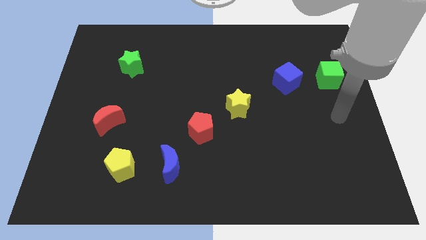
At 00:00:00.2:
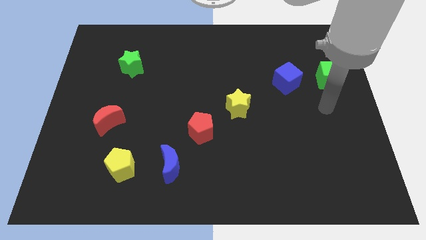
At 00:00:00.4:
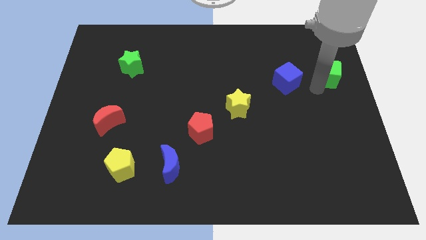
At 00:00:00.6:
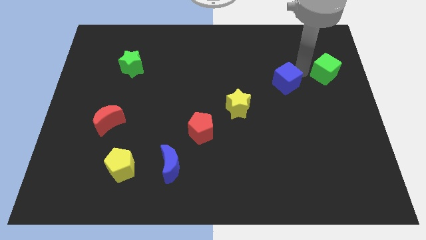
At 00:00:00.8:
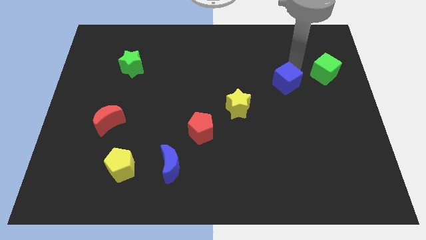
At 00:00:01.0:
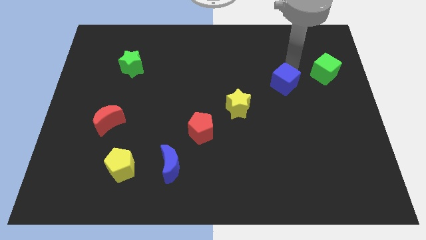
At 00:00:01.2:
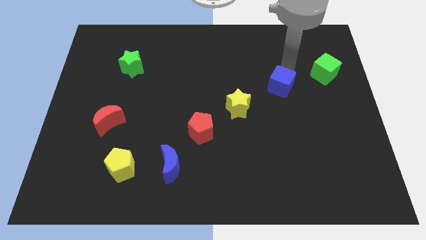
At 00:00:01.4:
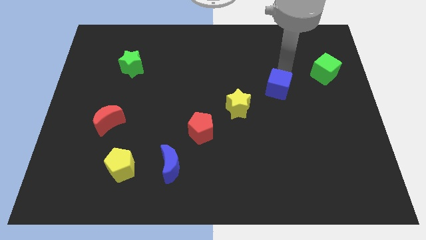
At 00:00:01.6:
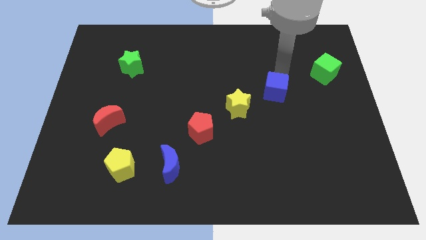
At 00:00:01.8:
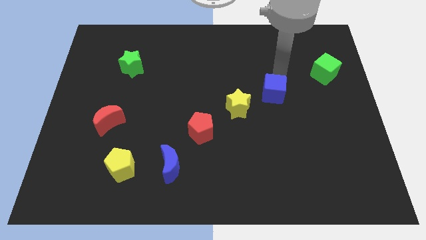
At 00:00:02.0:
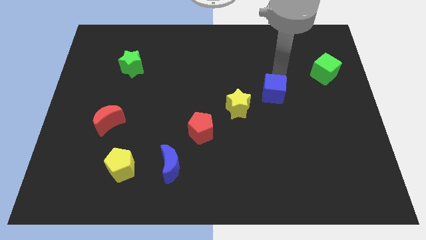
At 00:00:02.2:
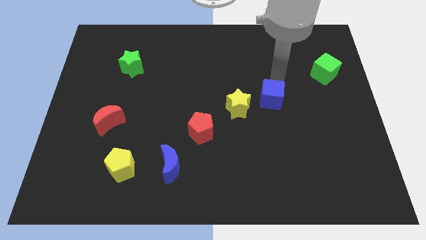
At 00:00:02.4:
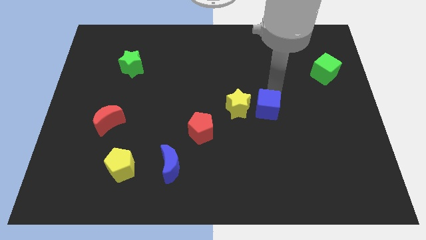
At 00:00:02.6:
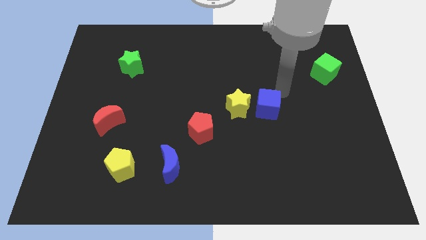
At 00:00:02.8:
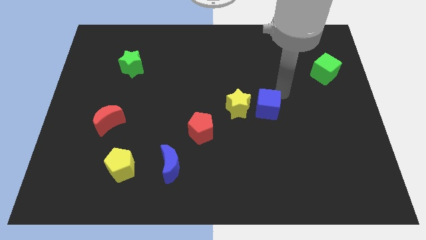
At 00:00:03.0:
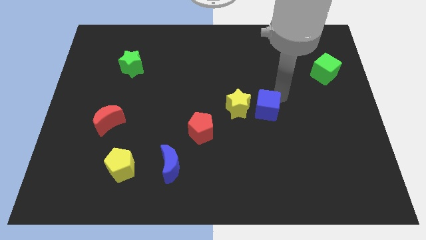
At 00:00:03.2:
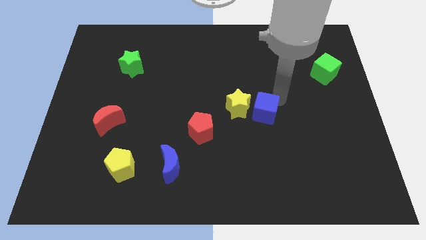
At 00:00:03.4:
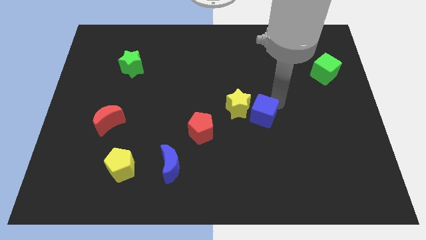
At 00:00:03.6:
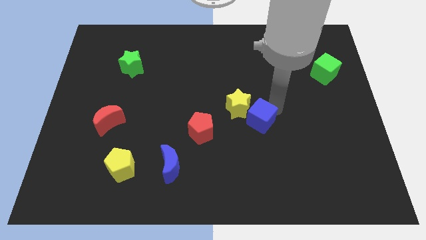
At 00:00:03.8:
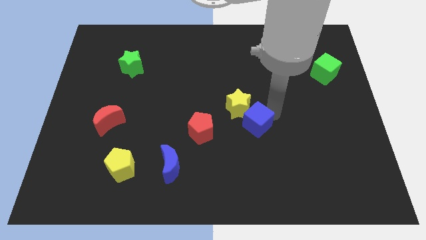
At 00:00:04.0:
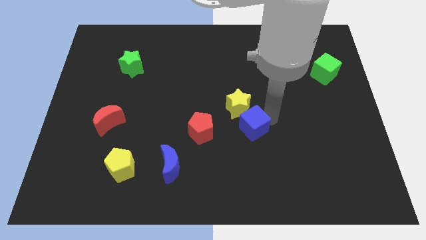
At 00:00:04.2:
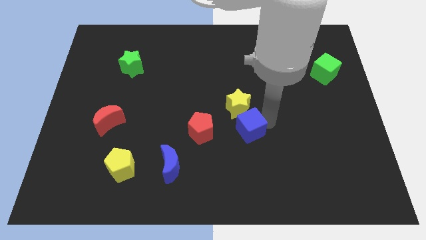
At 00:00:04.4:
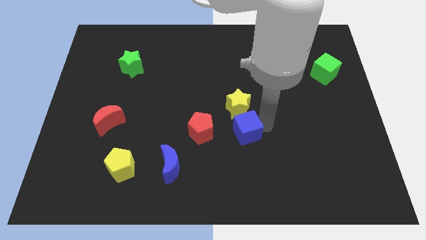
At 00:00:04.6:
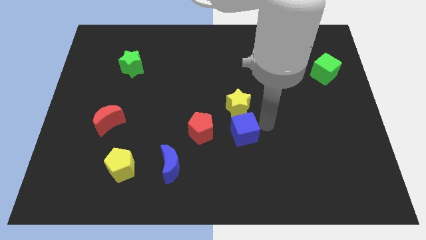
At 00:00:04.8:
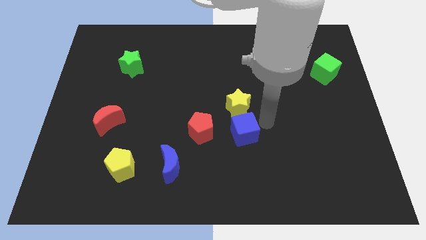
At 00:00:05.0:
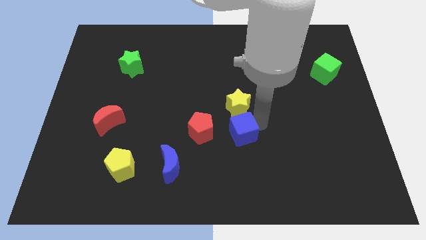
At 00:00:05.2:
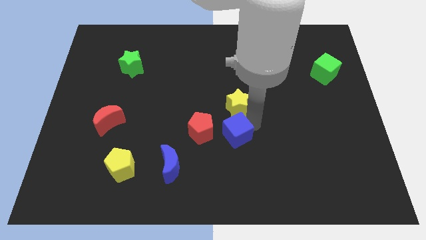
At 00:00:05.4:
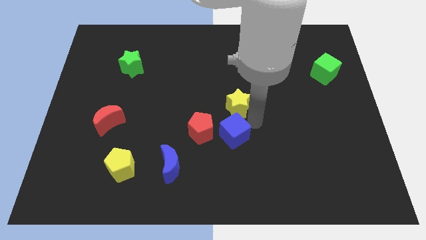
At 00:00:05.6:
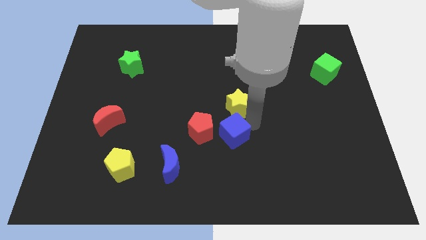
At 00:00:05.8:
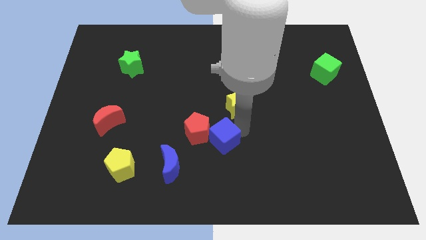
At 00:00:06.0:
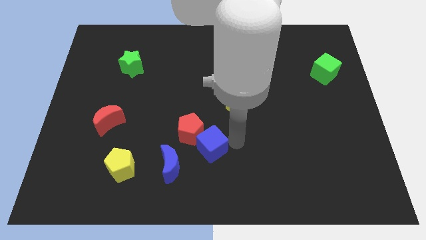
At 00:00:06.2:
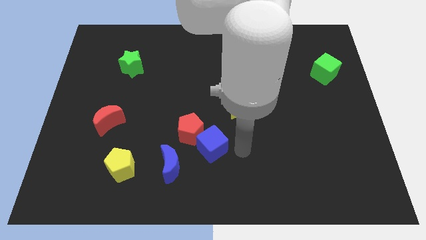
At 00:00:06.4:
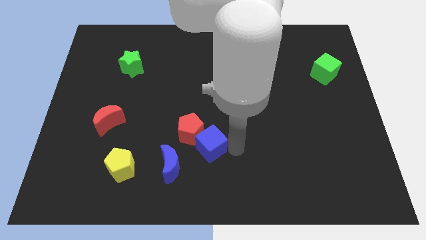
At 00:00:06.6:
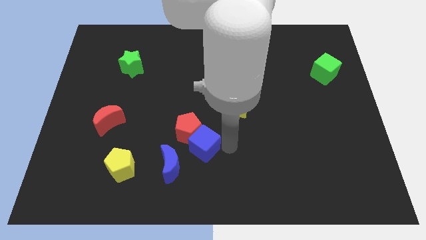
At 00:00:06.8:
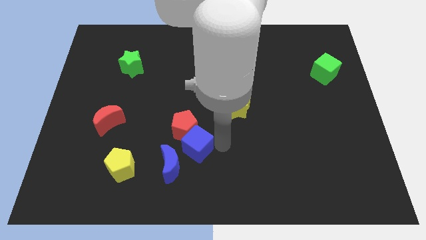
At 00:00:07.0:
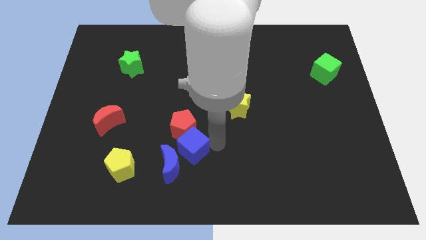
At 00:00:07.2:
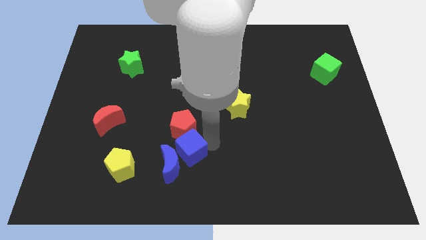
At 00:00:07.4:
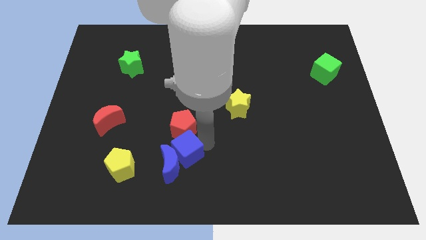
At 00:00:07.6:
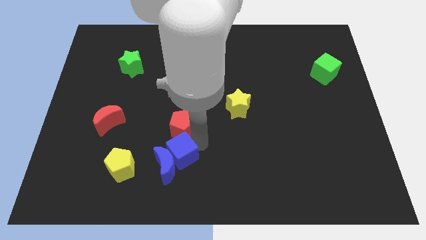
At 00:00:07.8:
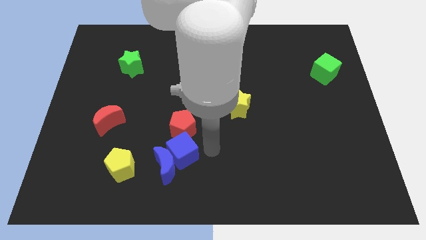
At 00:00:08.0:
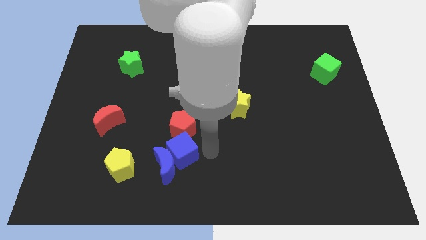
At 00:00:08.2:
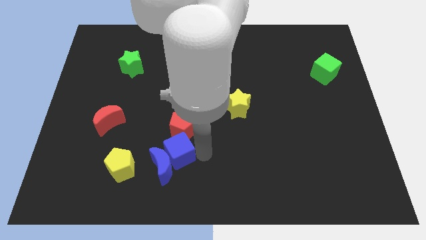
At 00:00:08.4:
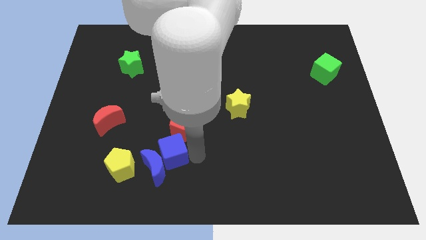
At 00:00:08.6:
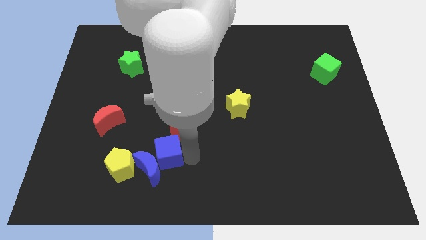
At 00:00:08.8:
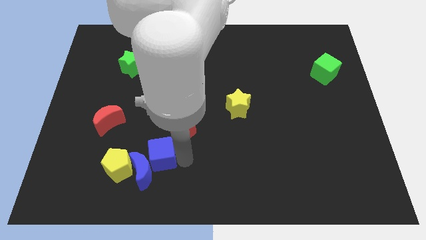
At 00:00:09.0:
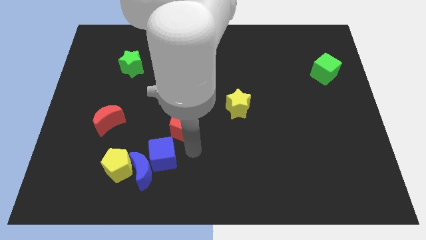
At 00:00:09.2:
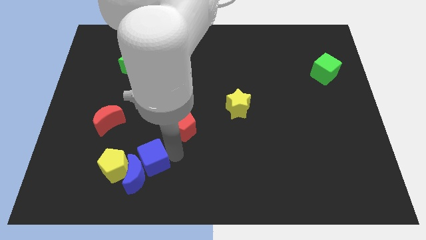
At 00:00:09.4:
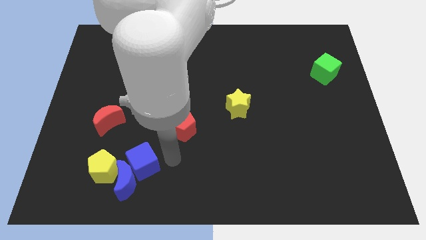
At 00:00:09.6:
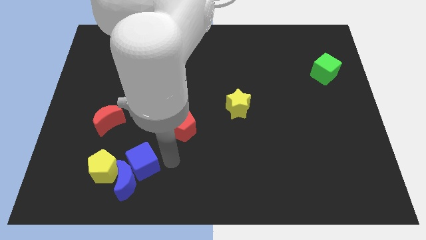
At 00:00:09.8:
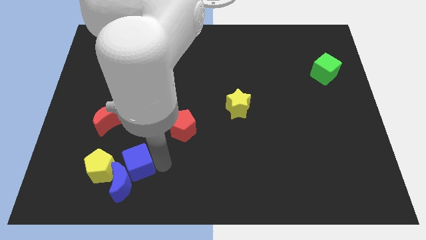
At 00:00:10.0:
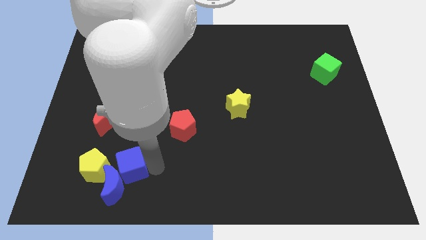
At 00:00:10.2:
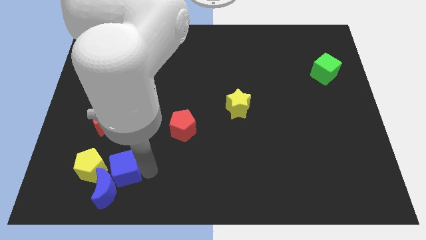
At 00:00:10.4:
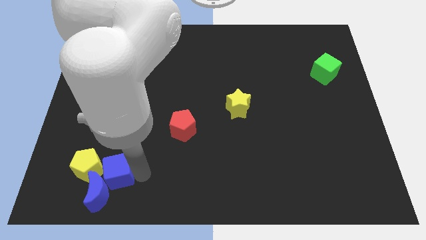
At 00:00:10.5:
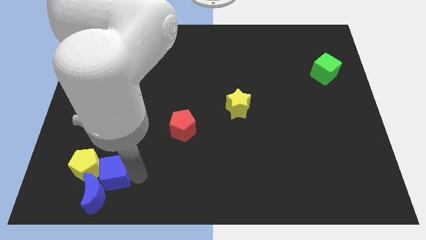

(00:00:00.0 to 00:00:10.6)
push the blue cube towards the yellow pentagon

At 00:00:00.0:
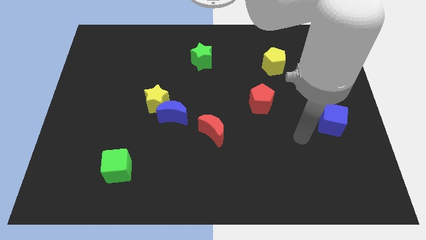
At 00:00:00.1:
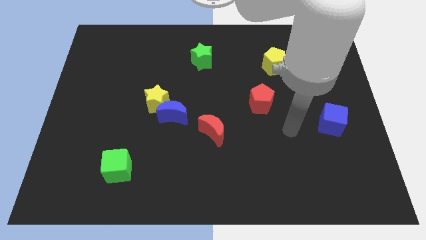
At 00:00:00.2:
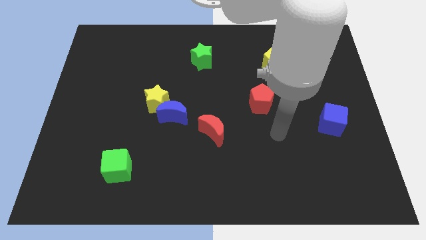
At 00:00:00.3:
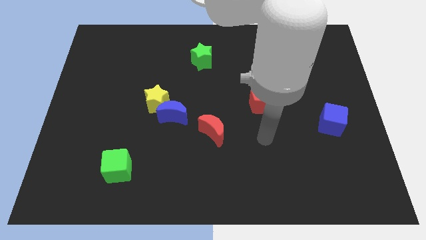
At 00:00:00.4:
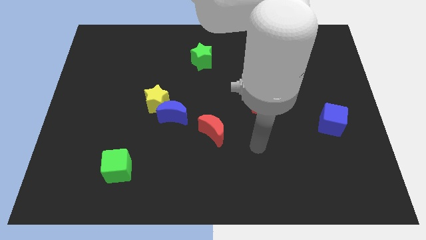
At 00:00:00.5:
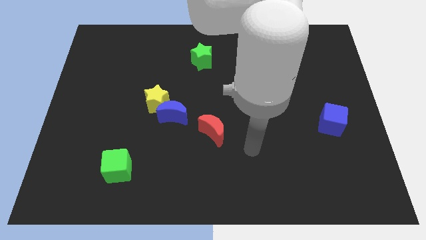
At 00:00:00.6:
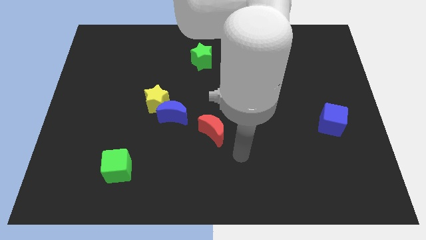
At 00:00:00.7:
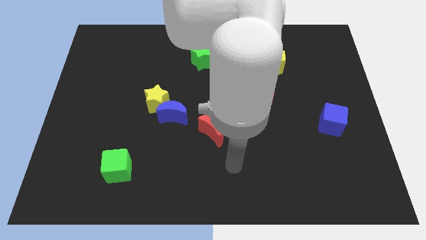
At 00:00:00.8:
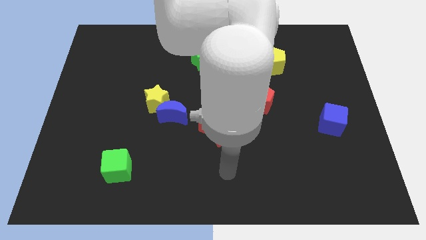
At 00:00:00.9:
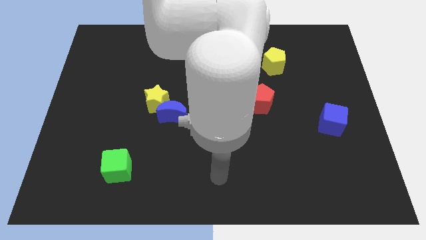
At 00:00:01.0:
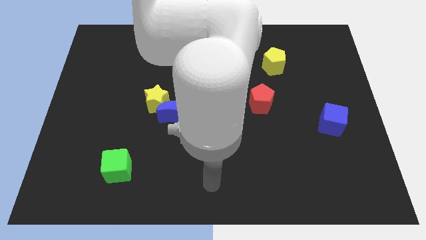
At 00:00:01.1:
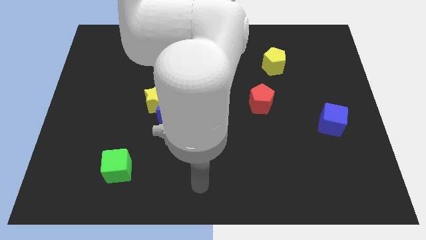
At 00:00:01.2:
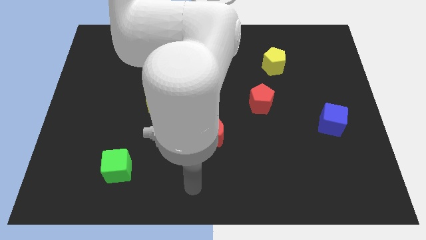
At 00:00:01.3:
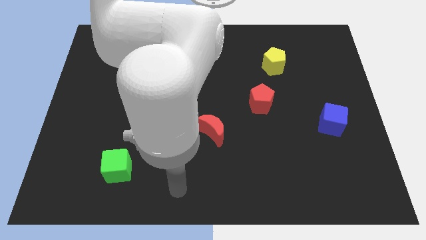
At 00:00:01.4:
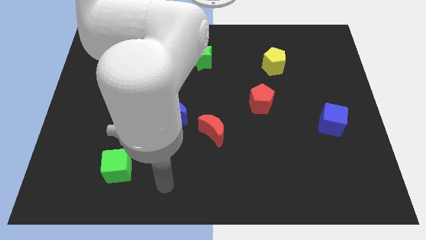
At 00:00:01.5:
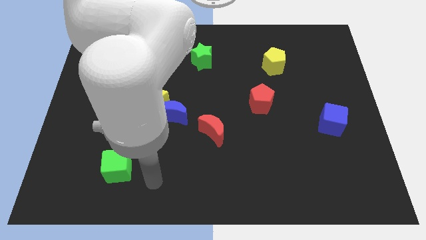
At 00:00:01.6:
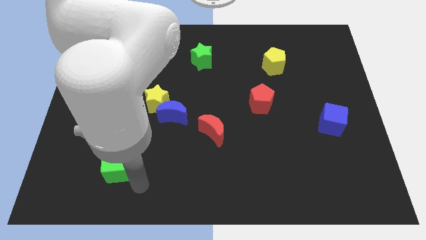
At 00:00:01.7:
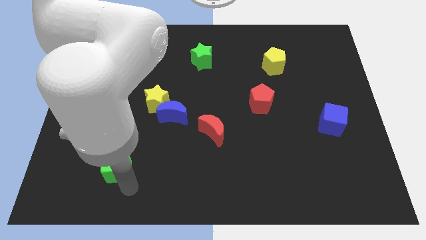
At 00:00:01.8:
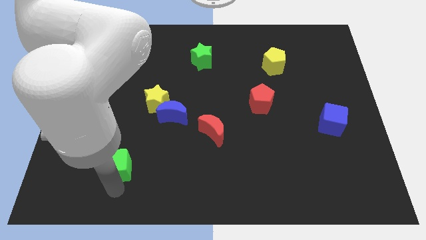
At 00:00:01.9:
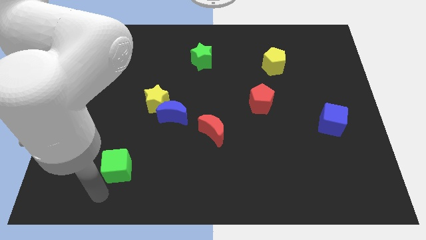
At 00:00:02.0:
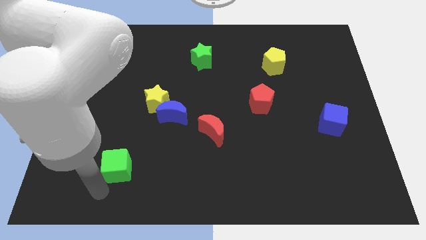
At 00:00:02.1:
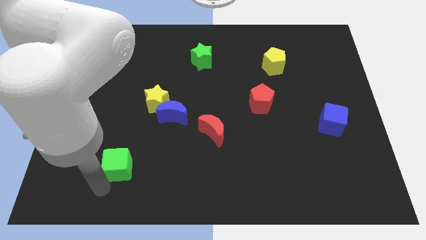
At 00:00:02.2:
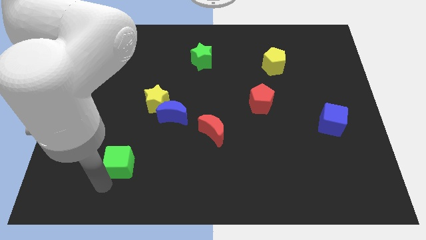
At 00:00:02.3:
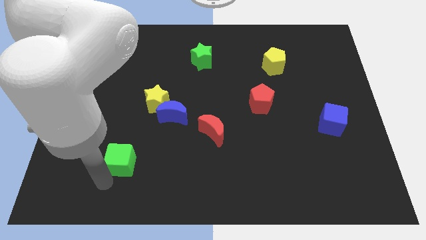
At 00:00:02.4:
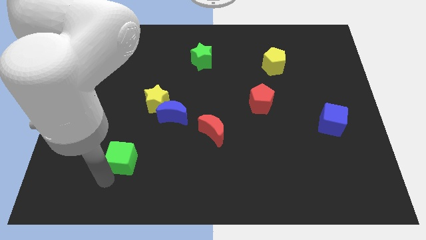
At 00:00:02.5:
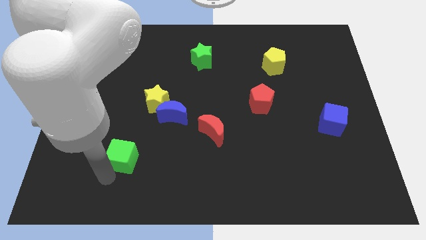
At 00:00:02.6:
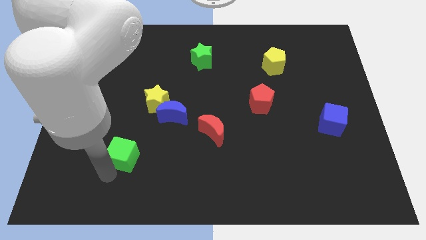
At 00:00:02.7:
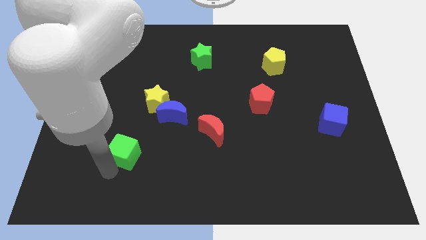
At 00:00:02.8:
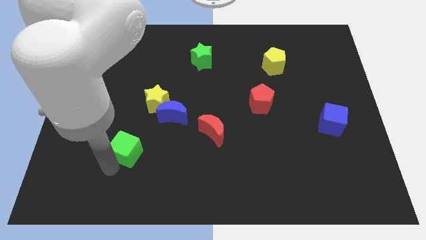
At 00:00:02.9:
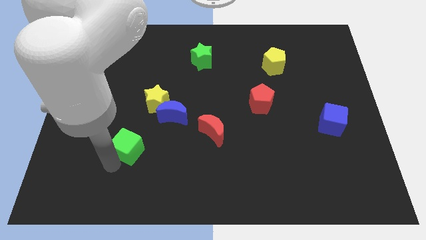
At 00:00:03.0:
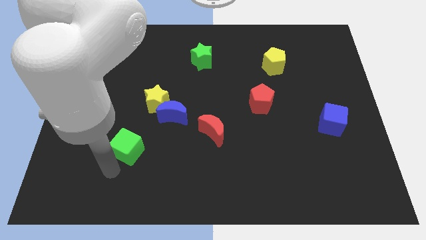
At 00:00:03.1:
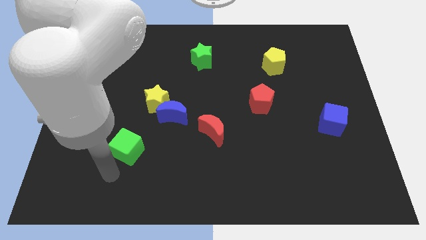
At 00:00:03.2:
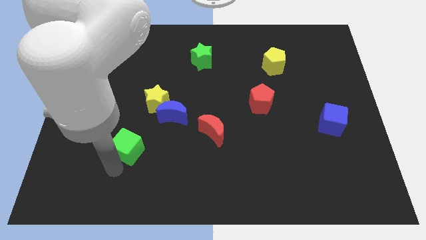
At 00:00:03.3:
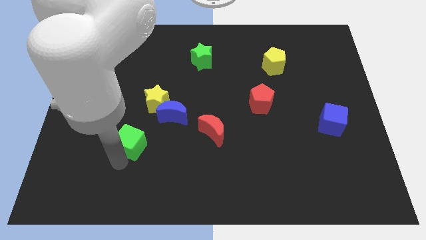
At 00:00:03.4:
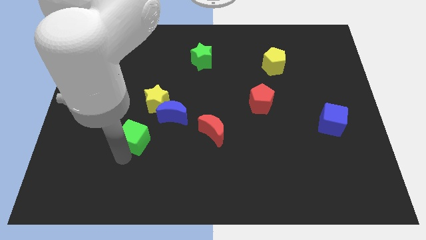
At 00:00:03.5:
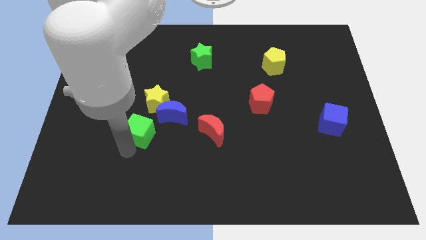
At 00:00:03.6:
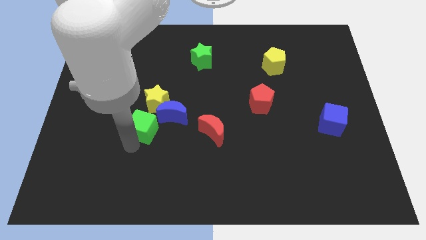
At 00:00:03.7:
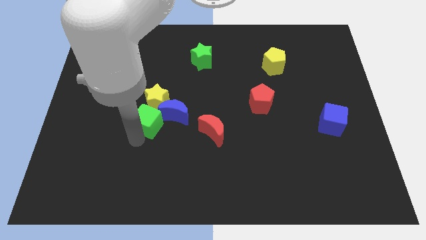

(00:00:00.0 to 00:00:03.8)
push the green cube towards the yellow star
